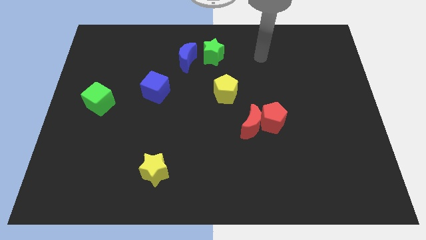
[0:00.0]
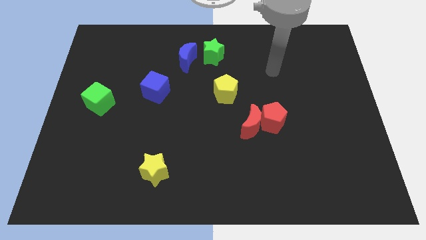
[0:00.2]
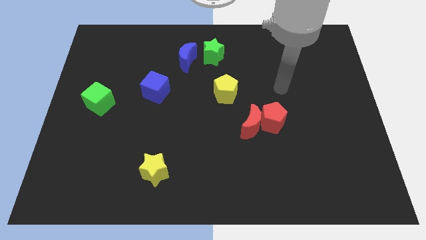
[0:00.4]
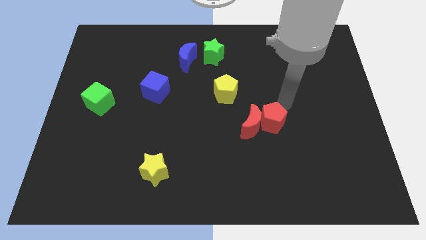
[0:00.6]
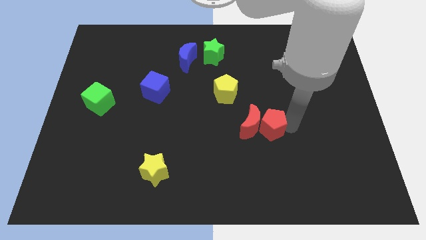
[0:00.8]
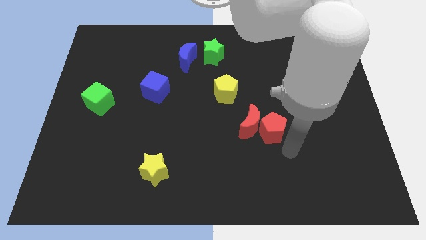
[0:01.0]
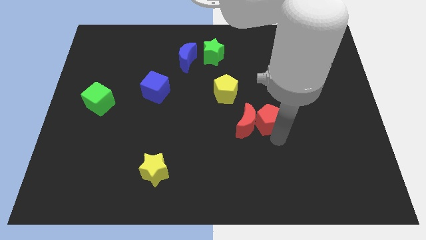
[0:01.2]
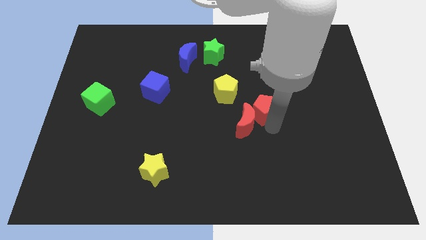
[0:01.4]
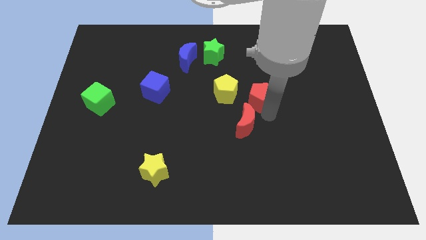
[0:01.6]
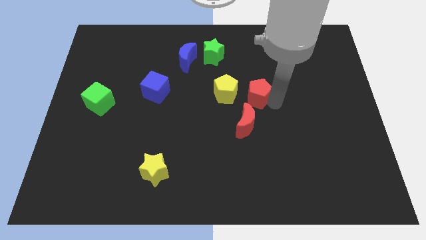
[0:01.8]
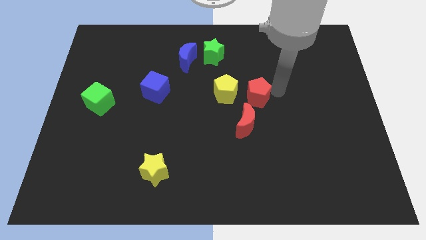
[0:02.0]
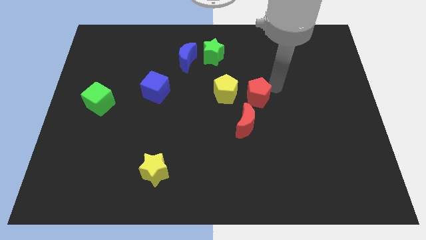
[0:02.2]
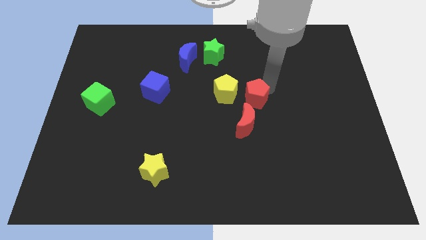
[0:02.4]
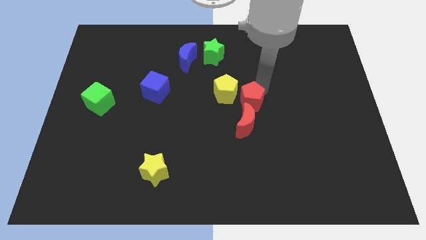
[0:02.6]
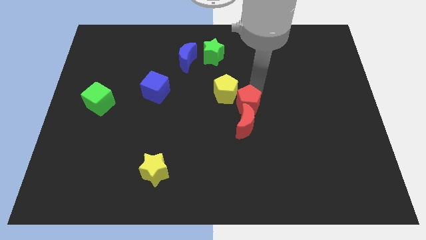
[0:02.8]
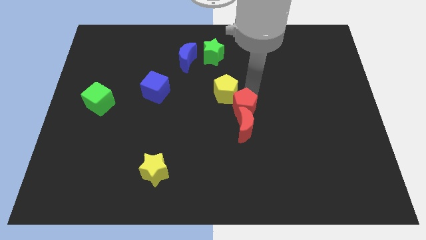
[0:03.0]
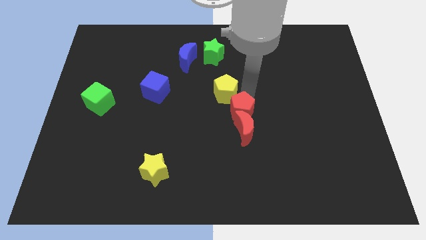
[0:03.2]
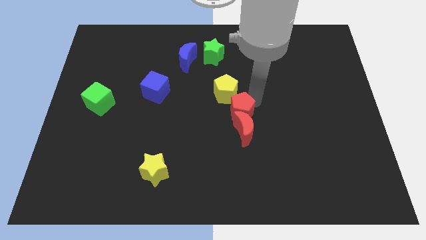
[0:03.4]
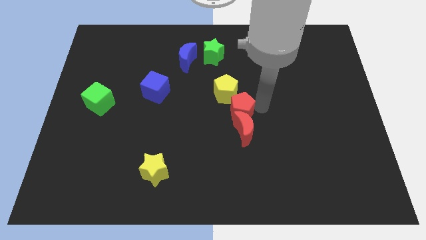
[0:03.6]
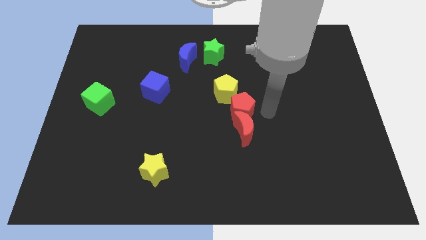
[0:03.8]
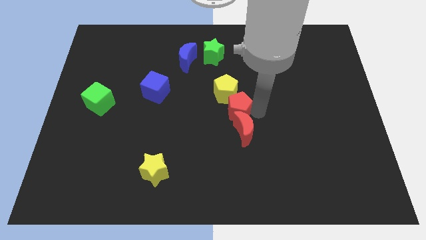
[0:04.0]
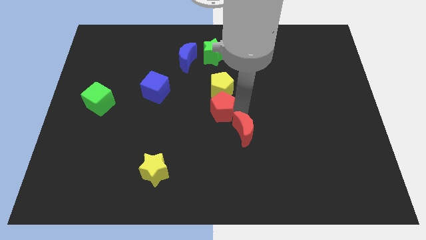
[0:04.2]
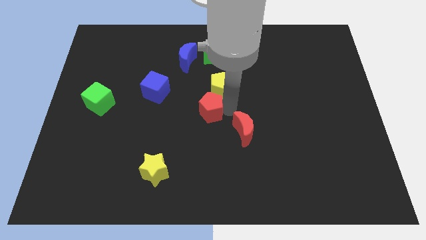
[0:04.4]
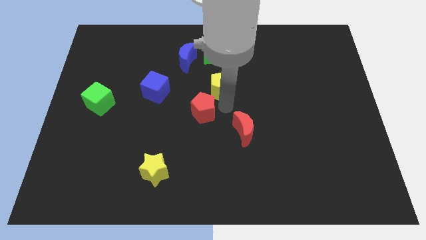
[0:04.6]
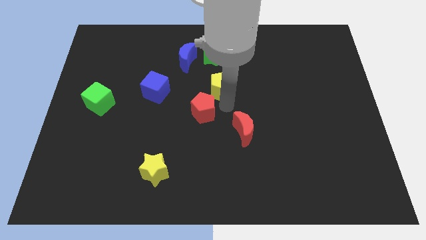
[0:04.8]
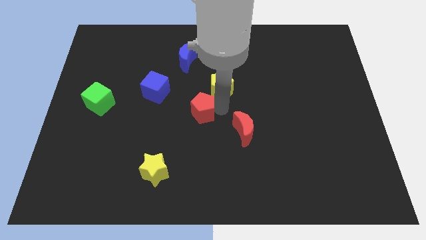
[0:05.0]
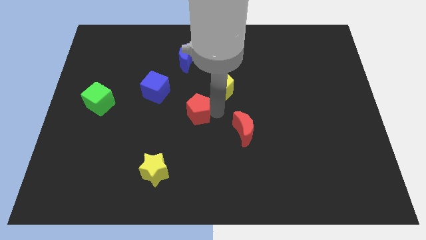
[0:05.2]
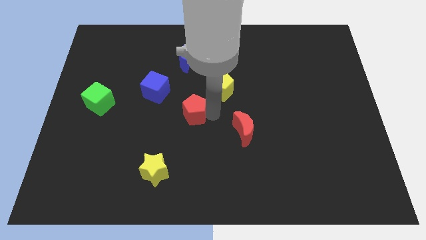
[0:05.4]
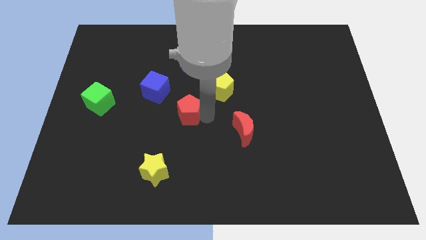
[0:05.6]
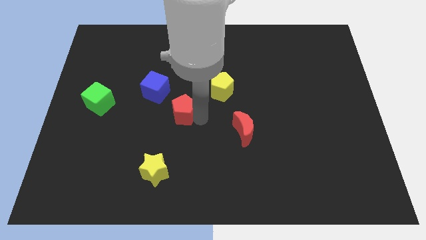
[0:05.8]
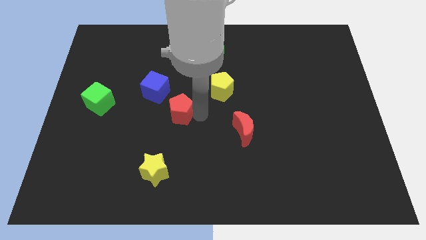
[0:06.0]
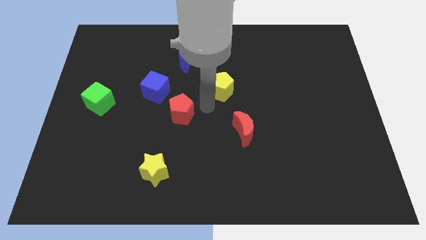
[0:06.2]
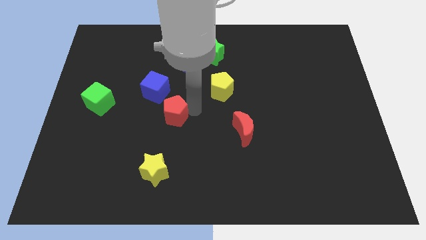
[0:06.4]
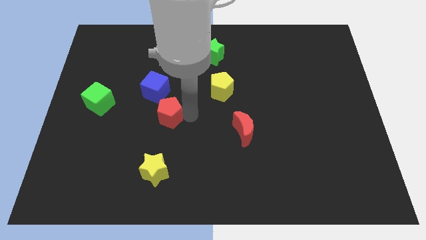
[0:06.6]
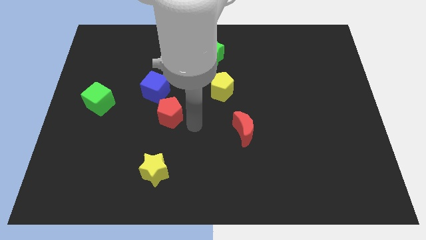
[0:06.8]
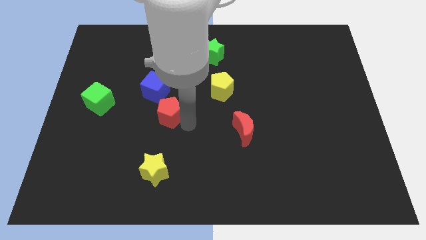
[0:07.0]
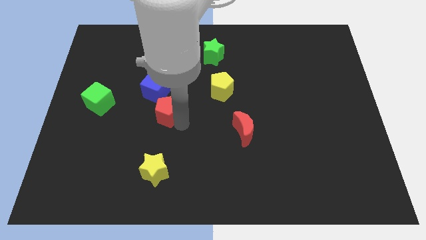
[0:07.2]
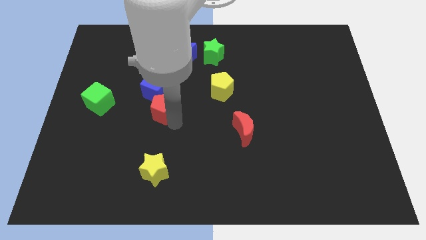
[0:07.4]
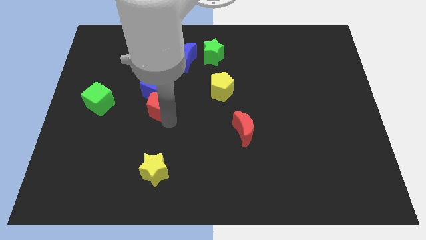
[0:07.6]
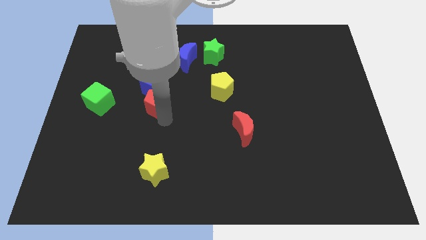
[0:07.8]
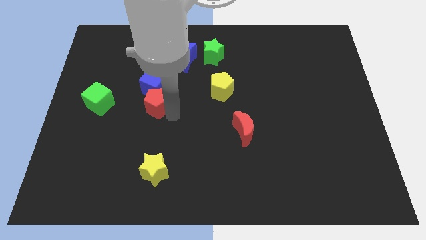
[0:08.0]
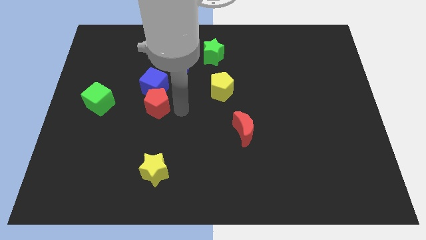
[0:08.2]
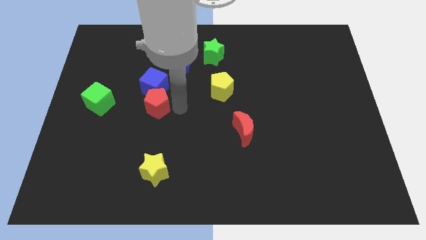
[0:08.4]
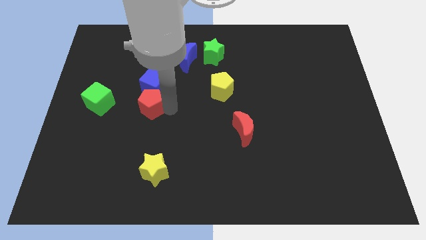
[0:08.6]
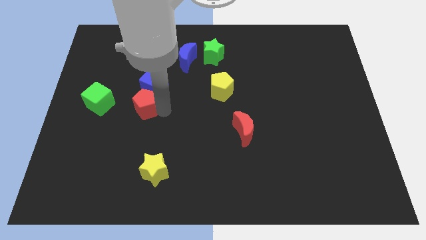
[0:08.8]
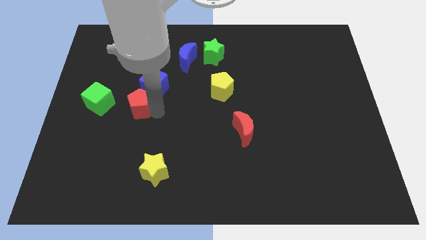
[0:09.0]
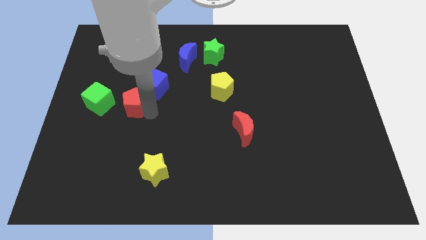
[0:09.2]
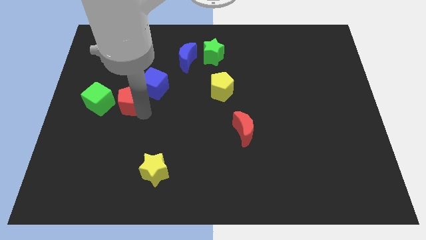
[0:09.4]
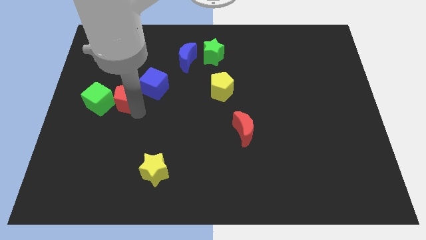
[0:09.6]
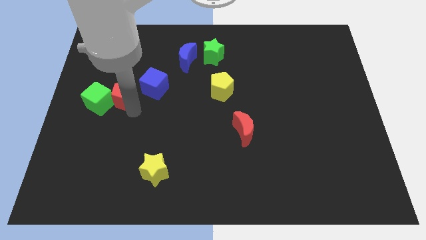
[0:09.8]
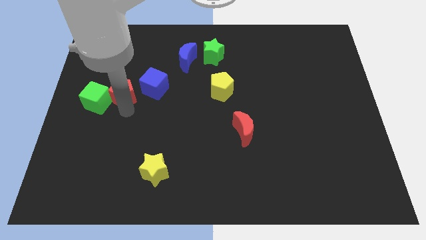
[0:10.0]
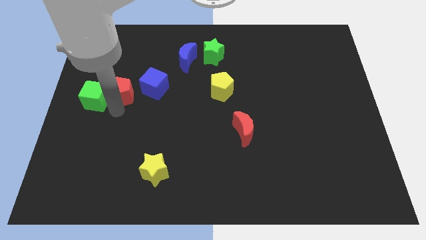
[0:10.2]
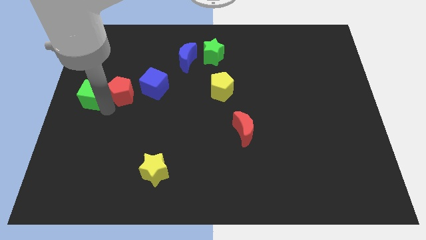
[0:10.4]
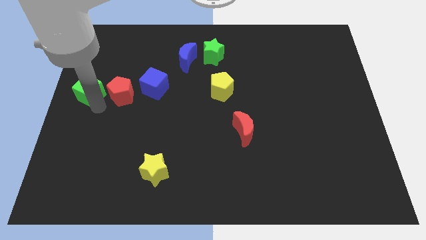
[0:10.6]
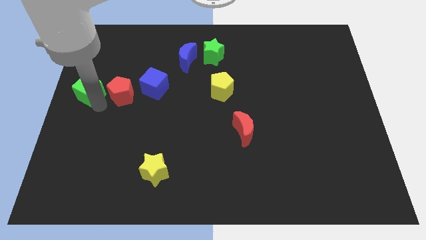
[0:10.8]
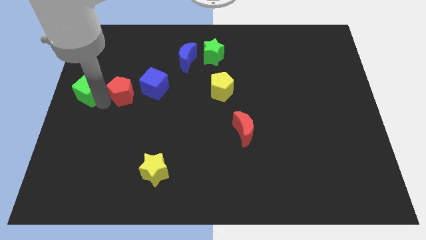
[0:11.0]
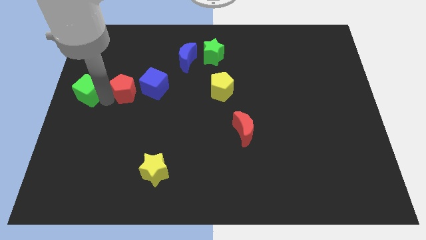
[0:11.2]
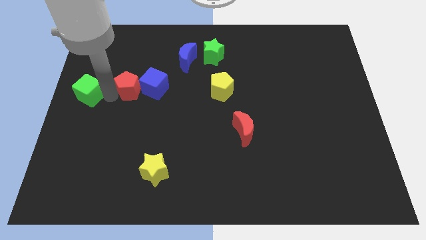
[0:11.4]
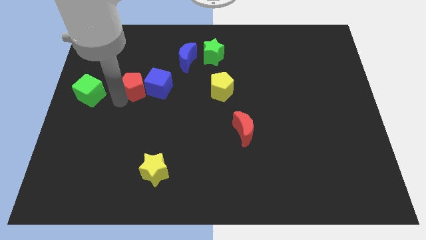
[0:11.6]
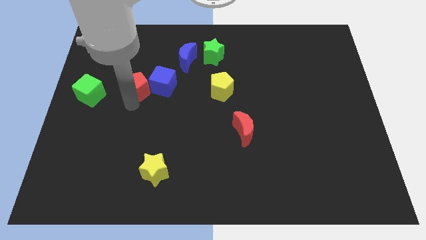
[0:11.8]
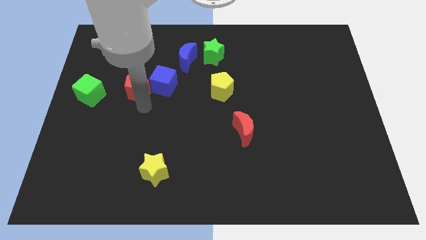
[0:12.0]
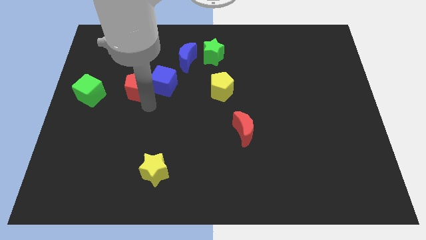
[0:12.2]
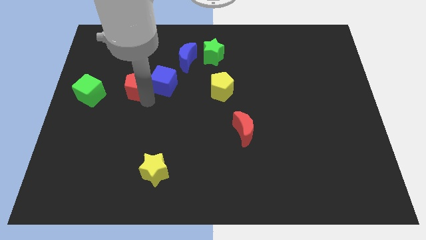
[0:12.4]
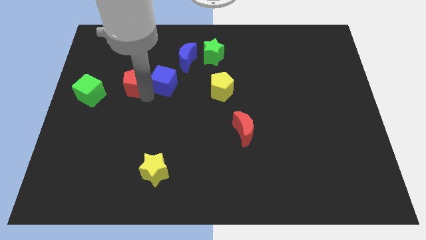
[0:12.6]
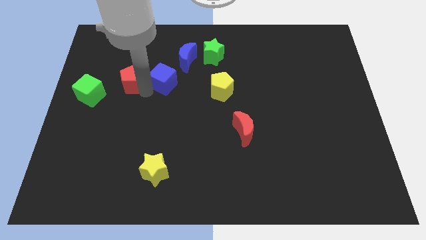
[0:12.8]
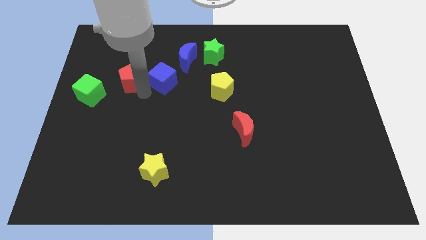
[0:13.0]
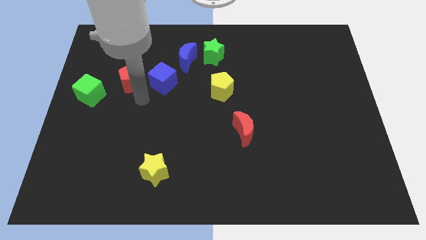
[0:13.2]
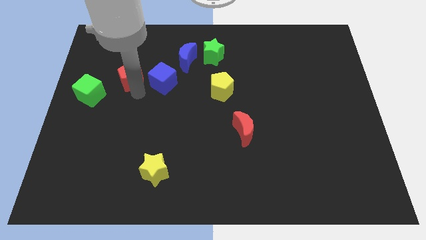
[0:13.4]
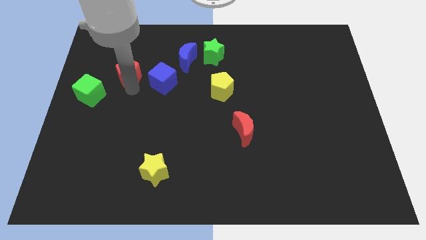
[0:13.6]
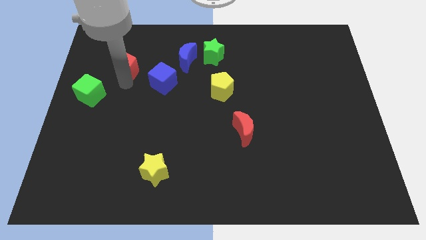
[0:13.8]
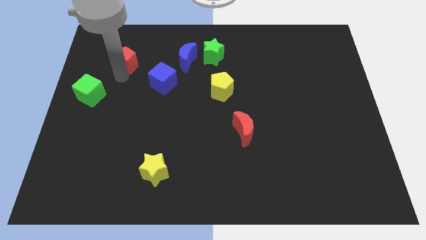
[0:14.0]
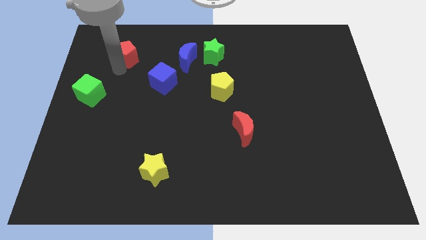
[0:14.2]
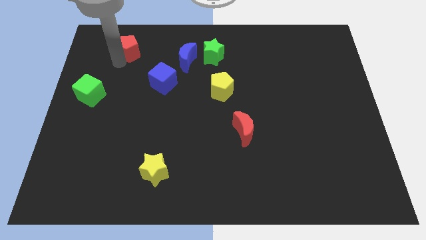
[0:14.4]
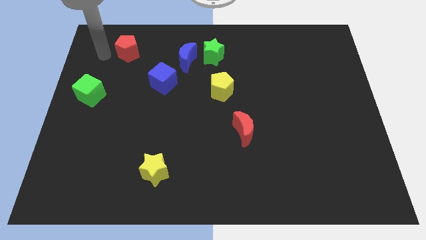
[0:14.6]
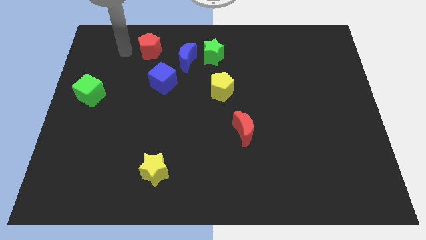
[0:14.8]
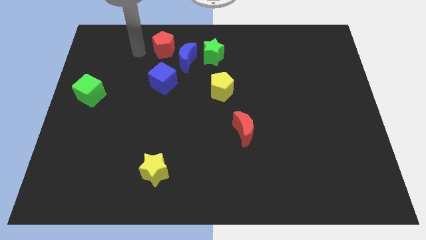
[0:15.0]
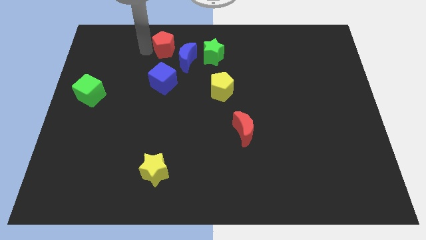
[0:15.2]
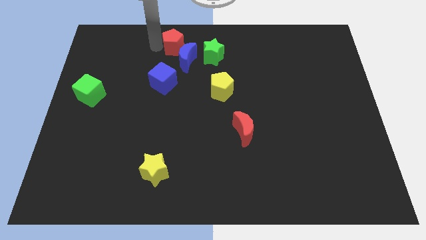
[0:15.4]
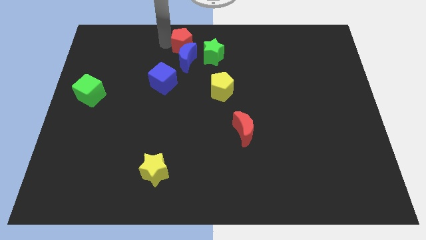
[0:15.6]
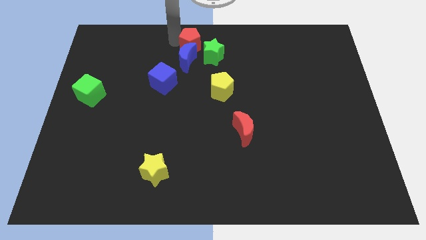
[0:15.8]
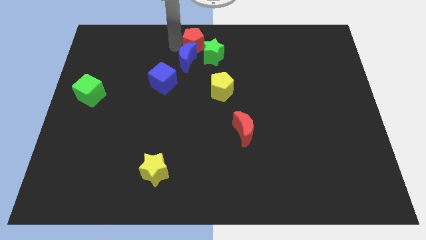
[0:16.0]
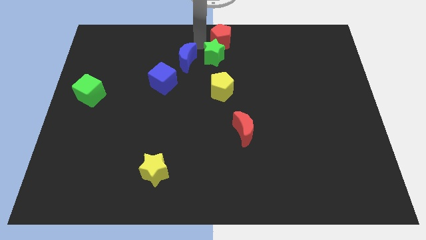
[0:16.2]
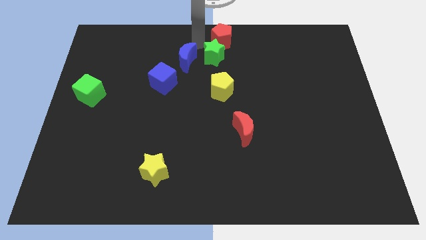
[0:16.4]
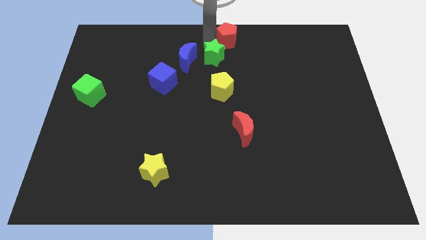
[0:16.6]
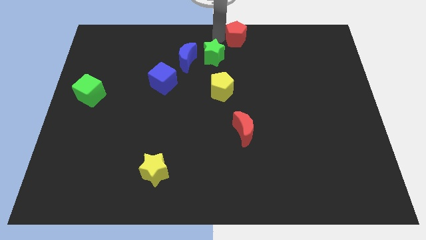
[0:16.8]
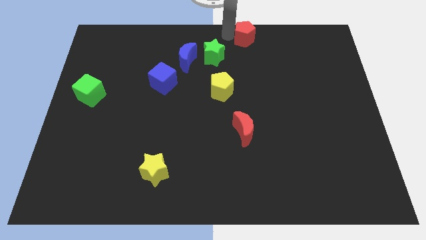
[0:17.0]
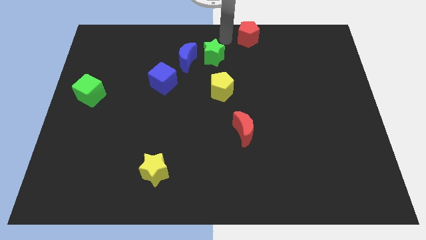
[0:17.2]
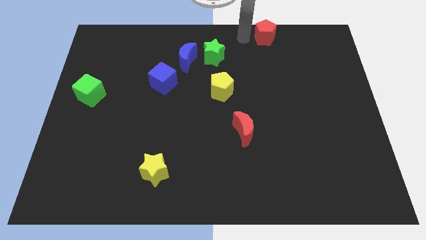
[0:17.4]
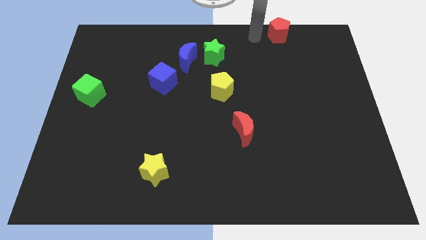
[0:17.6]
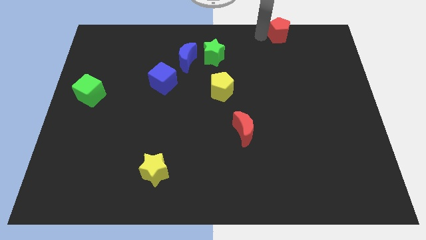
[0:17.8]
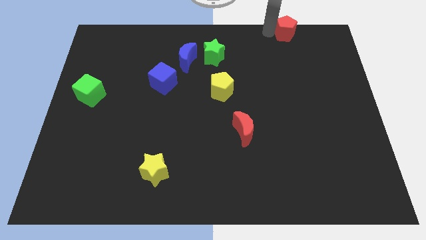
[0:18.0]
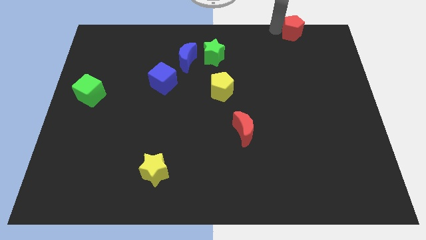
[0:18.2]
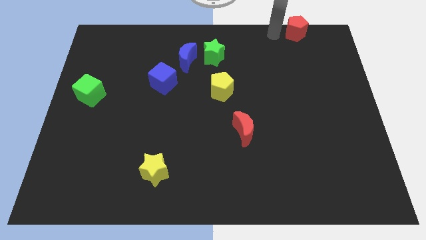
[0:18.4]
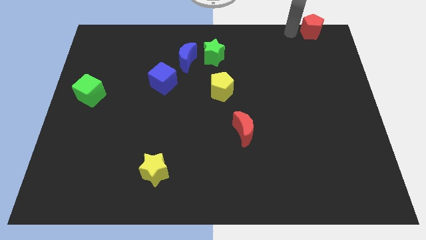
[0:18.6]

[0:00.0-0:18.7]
slide the red pentagon to the upper right corner
